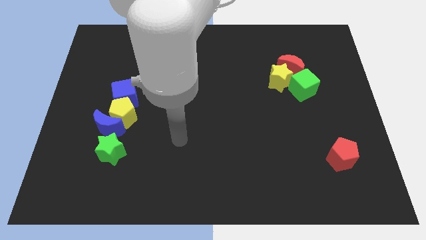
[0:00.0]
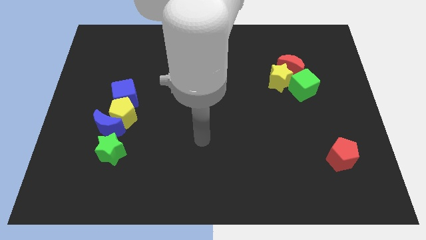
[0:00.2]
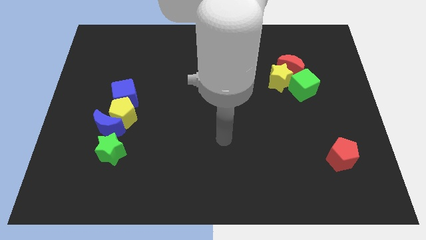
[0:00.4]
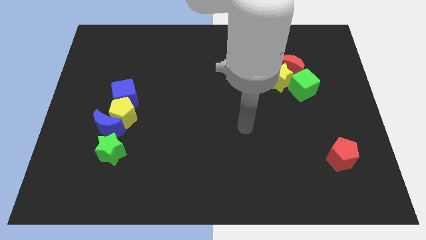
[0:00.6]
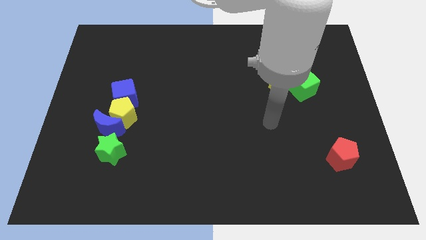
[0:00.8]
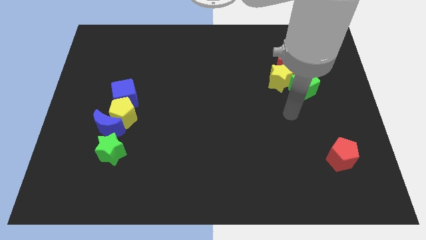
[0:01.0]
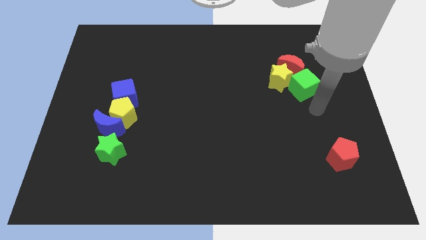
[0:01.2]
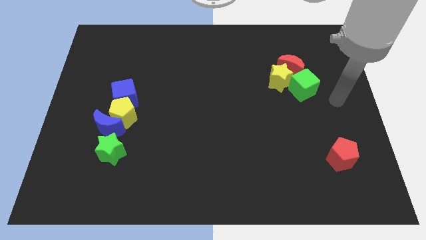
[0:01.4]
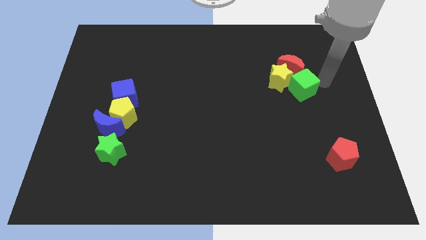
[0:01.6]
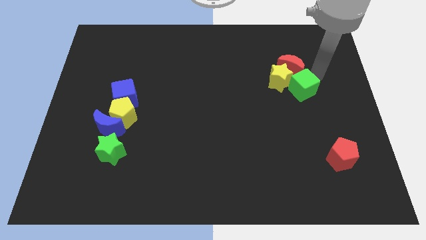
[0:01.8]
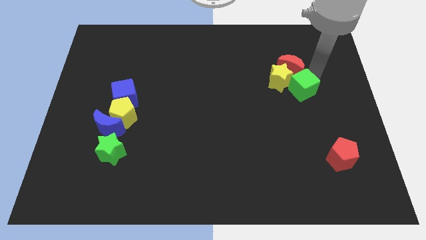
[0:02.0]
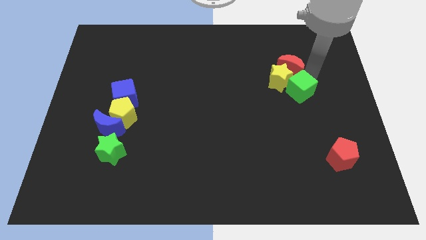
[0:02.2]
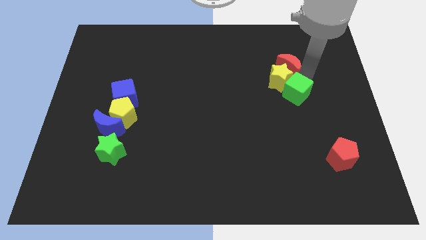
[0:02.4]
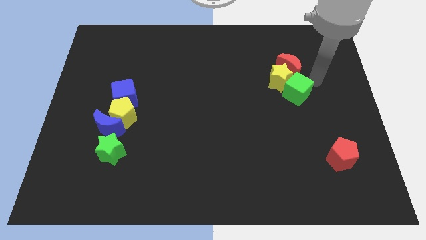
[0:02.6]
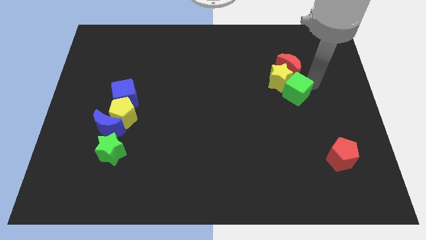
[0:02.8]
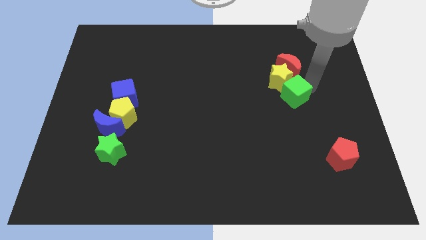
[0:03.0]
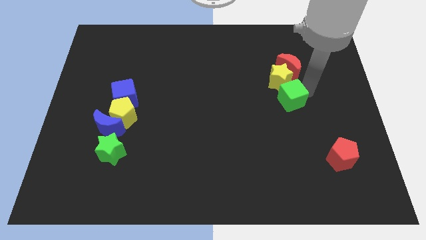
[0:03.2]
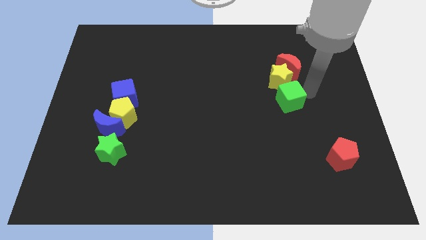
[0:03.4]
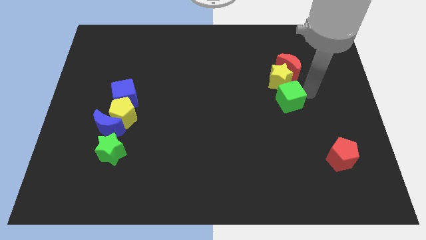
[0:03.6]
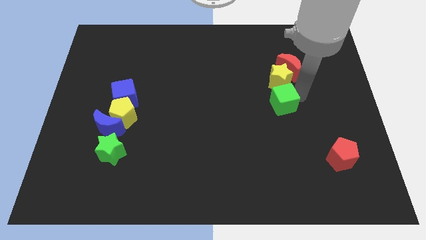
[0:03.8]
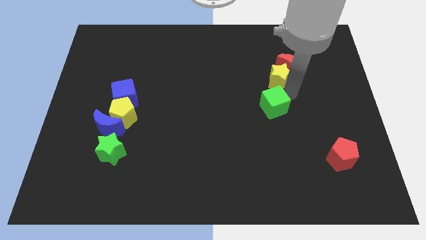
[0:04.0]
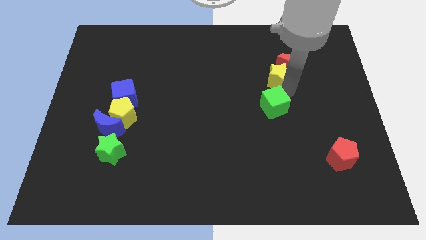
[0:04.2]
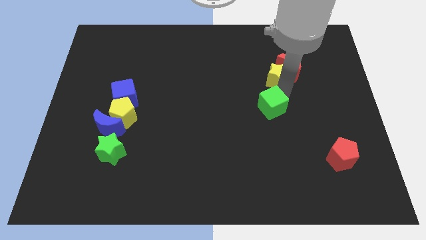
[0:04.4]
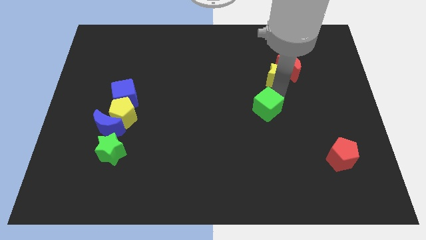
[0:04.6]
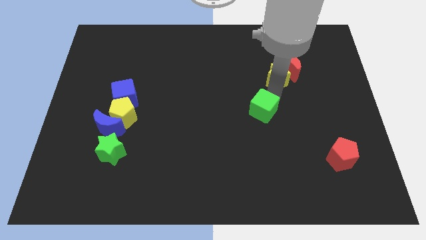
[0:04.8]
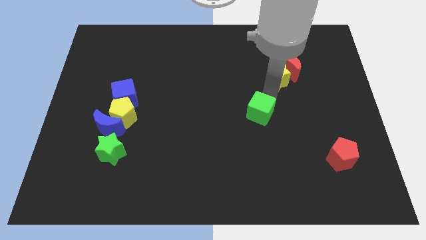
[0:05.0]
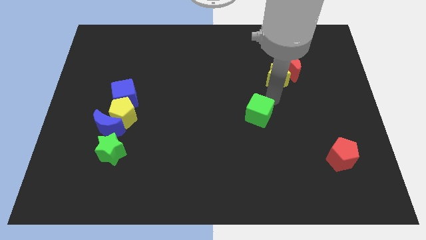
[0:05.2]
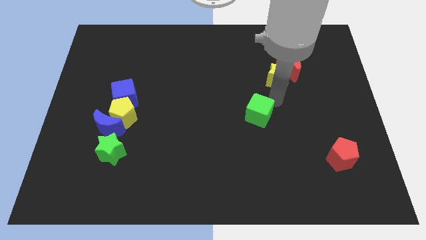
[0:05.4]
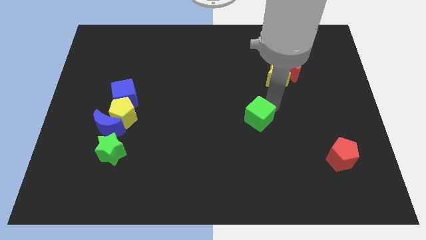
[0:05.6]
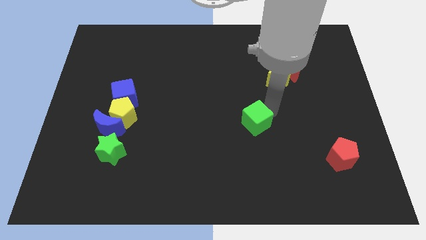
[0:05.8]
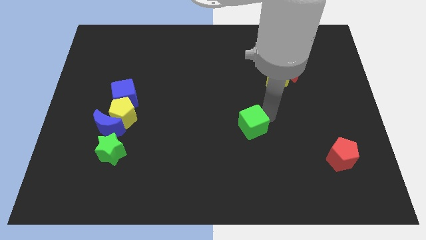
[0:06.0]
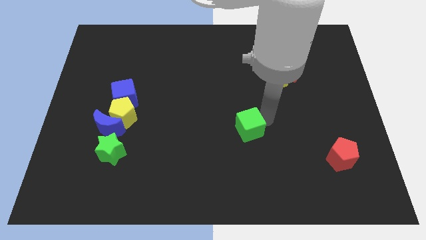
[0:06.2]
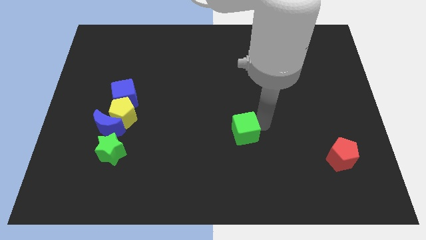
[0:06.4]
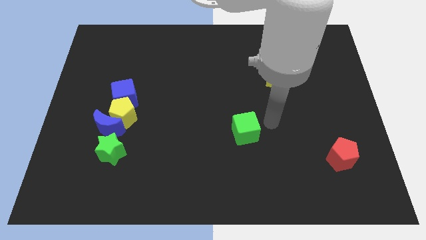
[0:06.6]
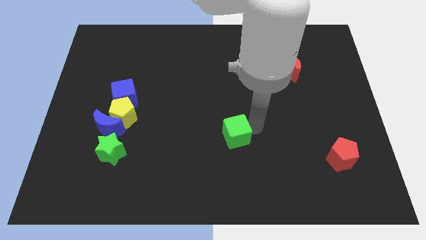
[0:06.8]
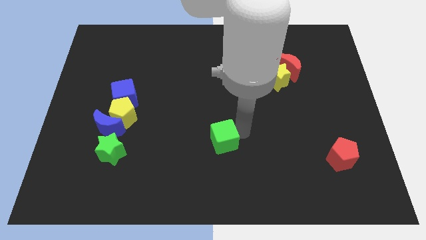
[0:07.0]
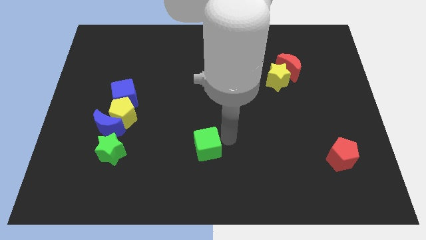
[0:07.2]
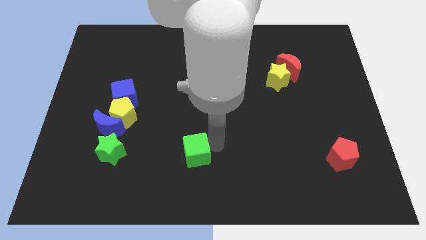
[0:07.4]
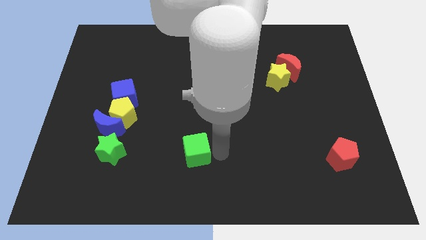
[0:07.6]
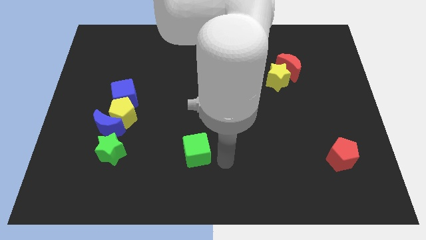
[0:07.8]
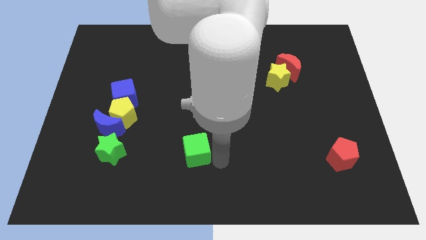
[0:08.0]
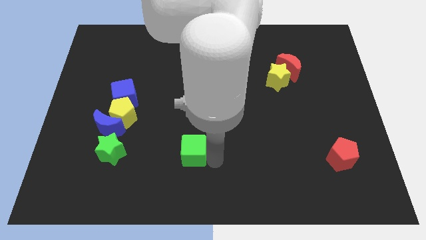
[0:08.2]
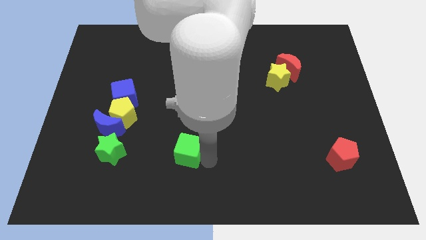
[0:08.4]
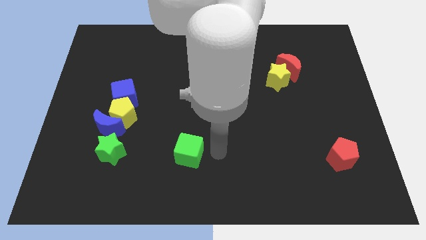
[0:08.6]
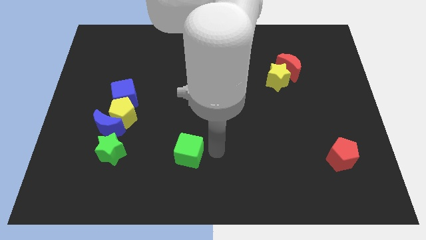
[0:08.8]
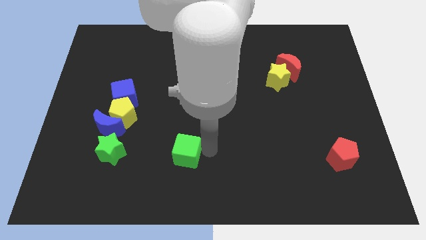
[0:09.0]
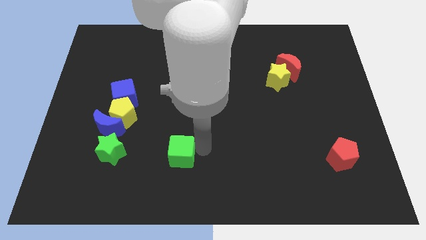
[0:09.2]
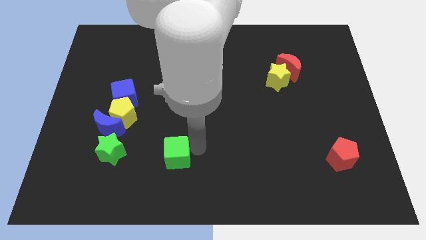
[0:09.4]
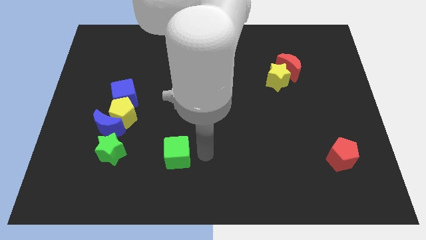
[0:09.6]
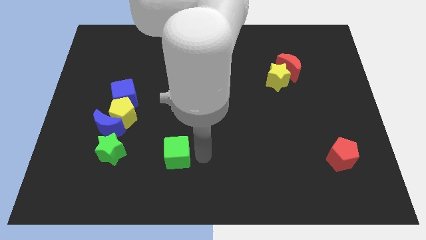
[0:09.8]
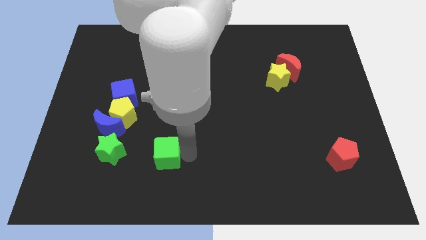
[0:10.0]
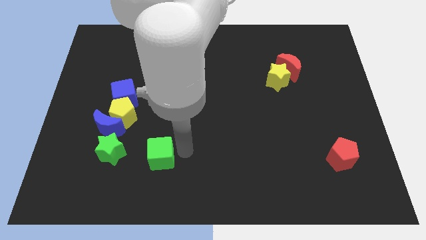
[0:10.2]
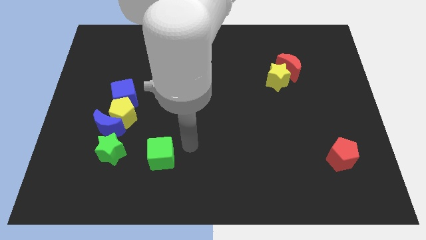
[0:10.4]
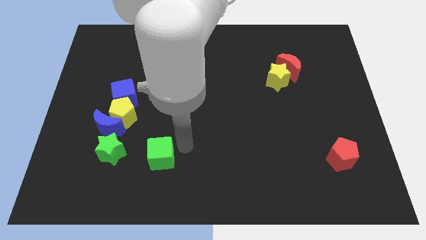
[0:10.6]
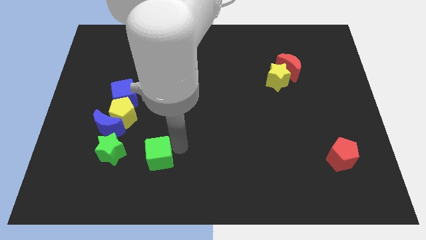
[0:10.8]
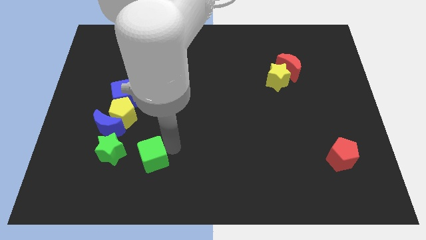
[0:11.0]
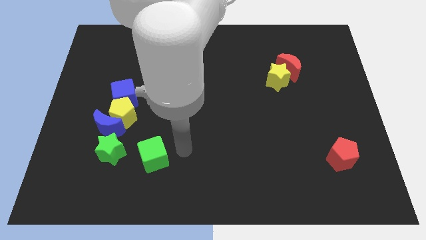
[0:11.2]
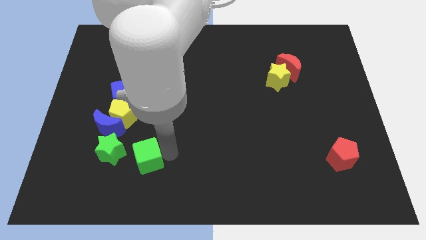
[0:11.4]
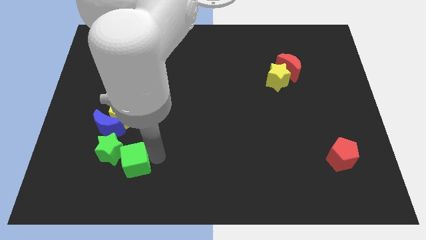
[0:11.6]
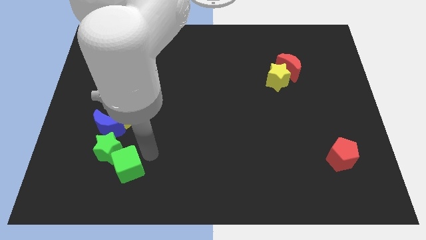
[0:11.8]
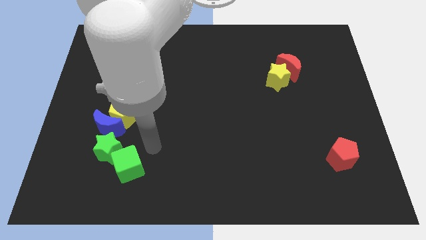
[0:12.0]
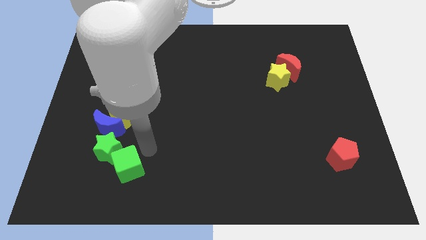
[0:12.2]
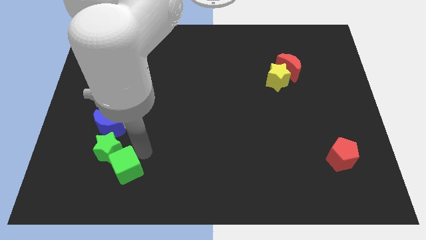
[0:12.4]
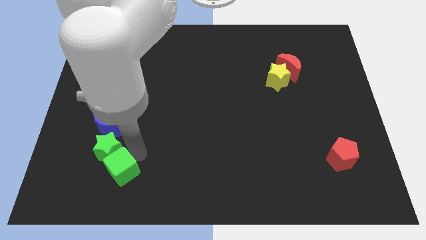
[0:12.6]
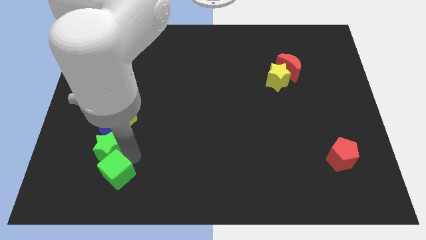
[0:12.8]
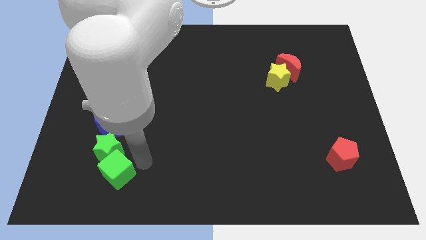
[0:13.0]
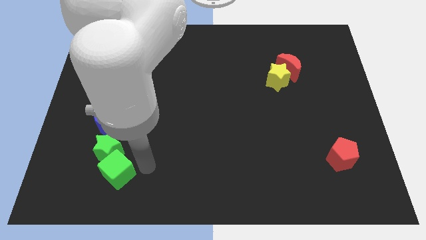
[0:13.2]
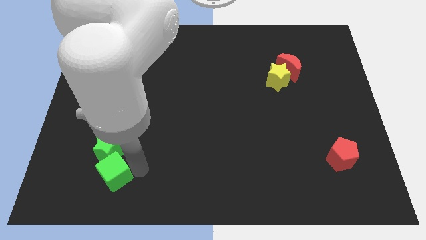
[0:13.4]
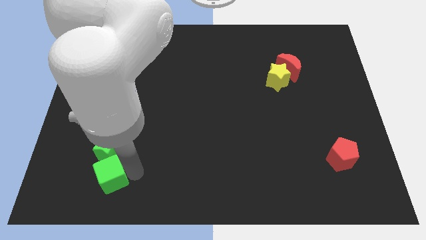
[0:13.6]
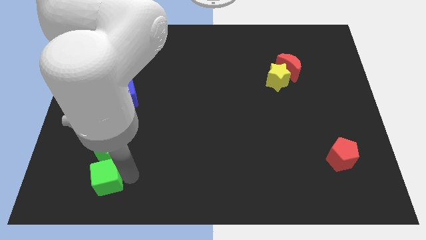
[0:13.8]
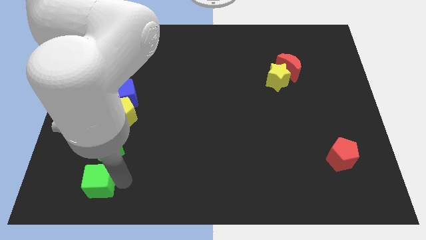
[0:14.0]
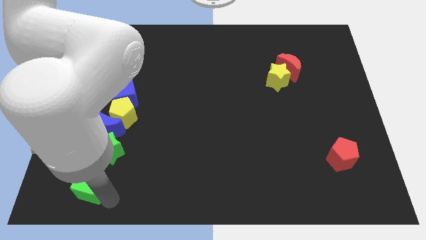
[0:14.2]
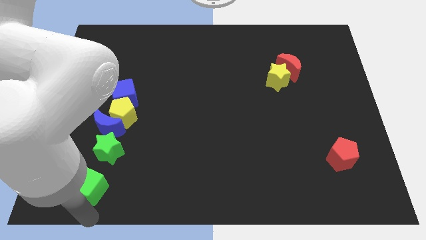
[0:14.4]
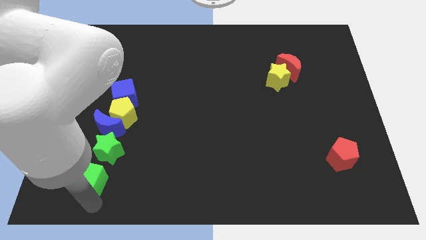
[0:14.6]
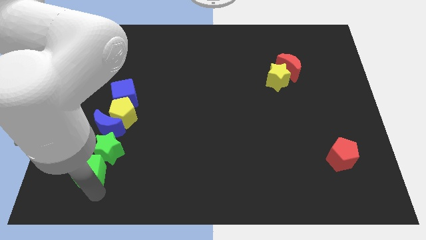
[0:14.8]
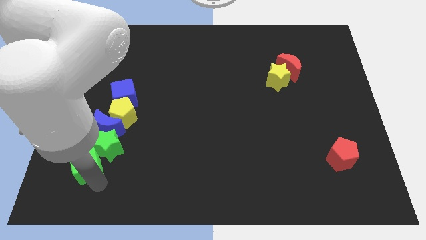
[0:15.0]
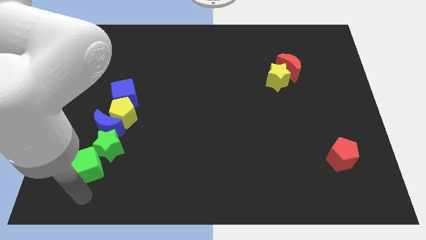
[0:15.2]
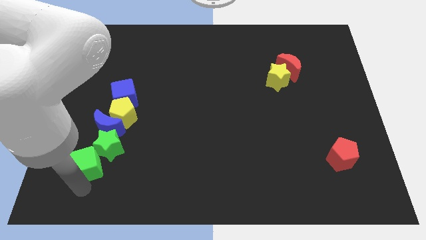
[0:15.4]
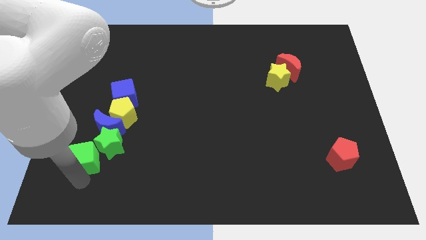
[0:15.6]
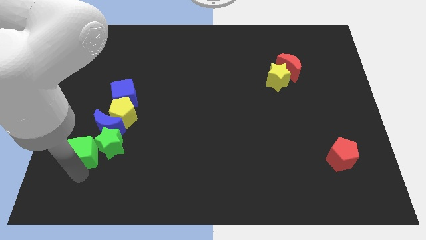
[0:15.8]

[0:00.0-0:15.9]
put the green cube to the bottom left side of the yellow pentagon

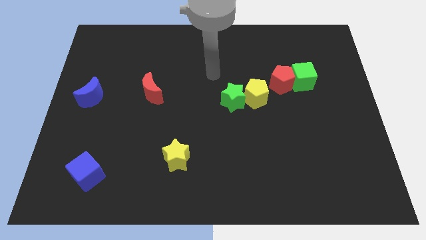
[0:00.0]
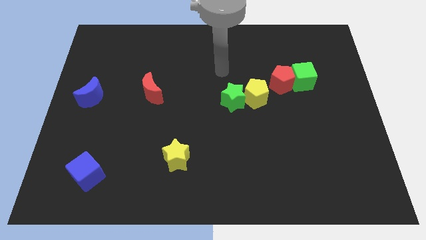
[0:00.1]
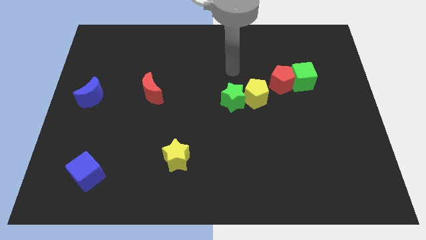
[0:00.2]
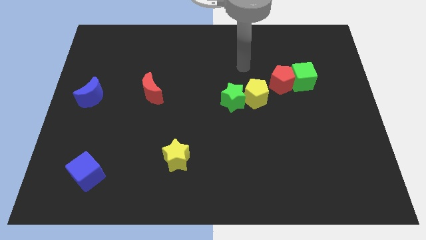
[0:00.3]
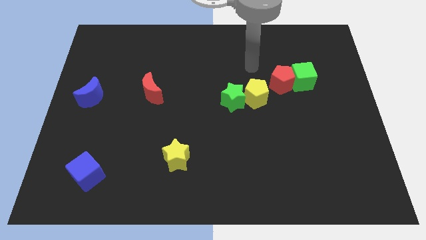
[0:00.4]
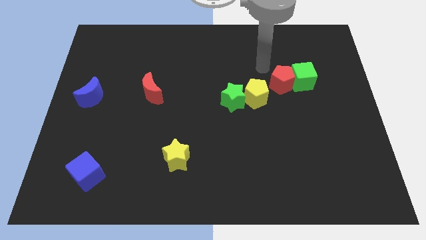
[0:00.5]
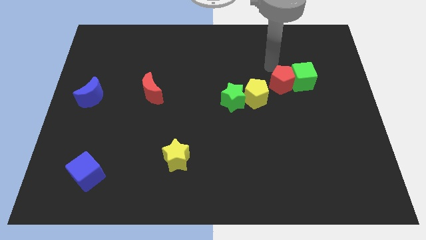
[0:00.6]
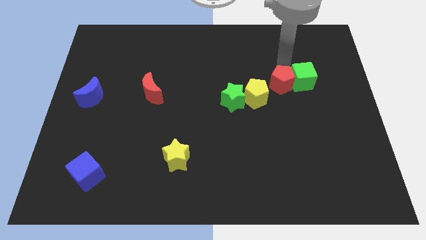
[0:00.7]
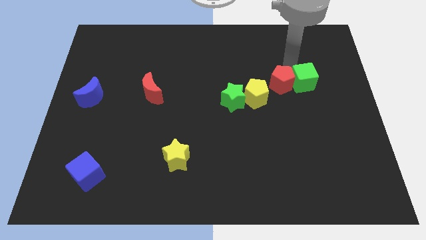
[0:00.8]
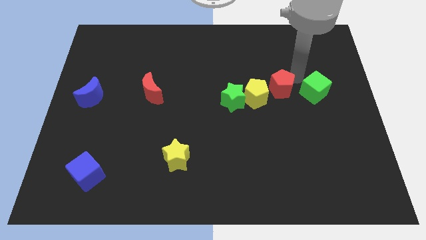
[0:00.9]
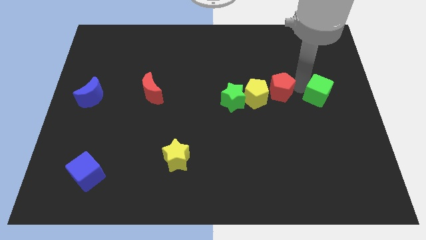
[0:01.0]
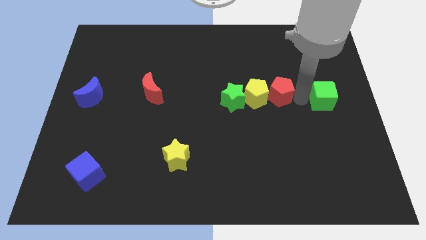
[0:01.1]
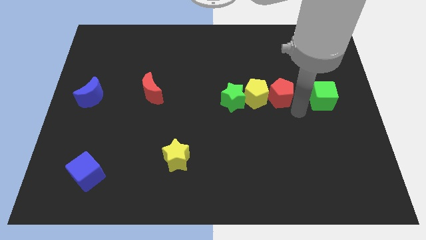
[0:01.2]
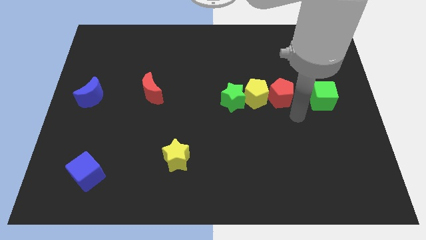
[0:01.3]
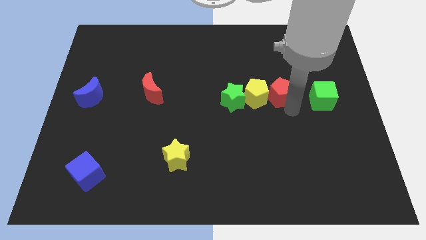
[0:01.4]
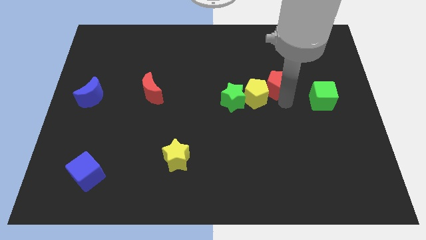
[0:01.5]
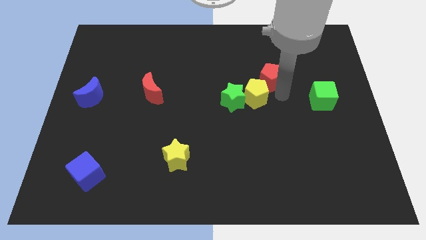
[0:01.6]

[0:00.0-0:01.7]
push the red pentagon above the yellow pentagon
